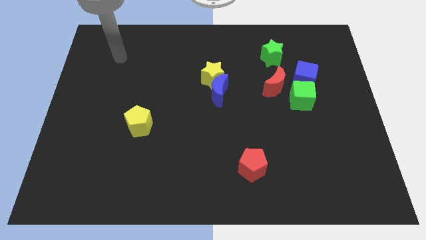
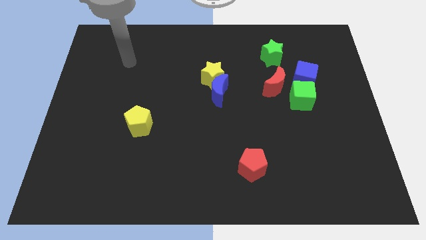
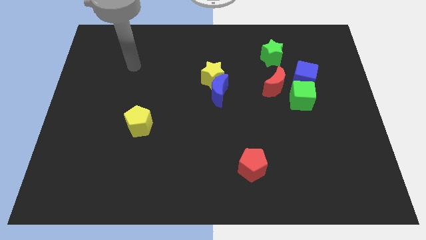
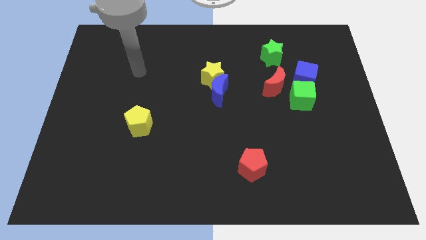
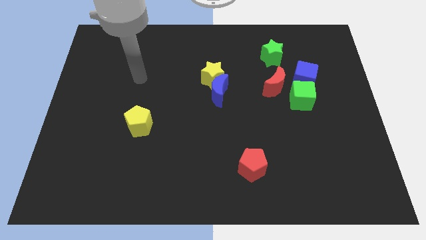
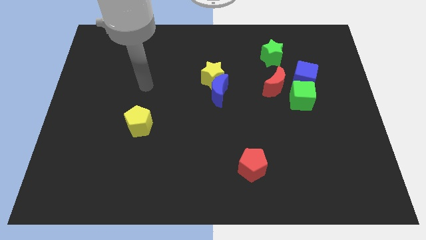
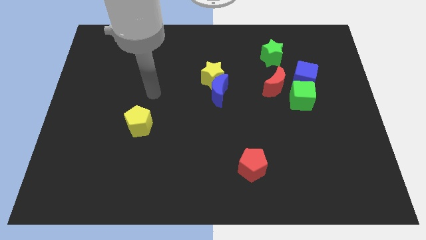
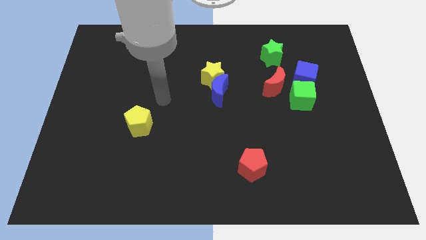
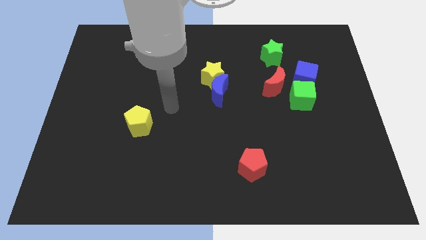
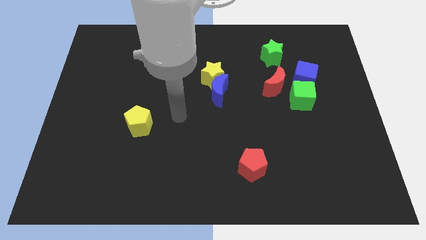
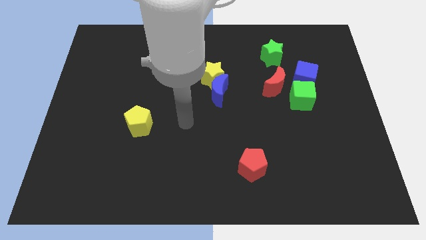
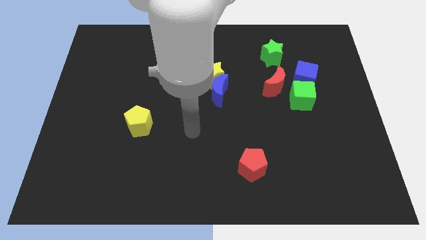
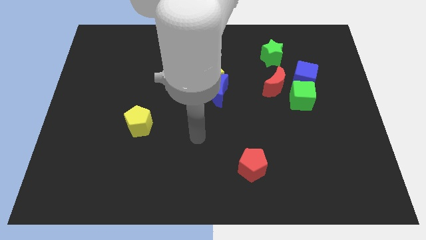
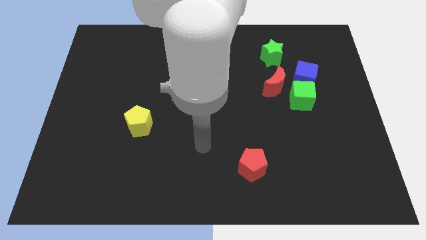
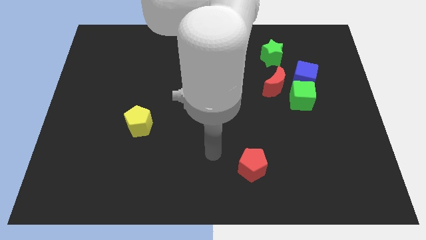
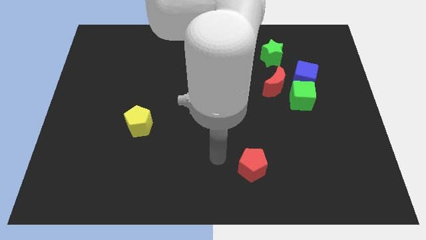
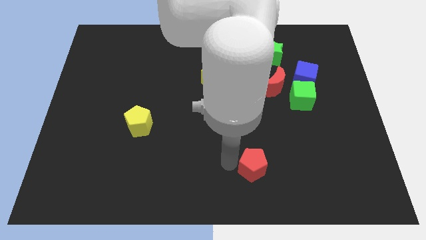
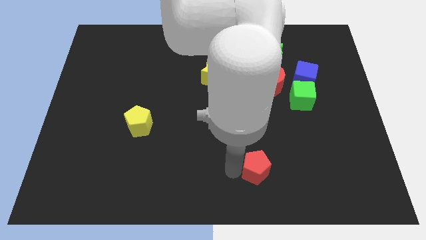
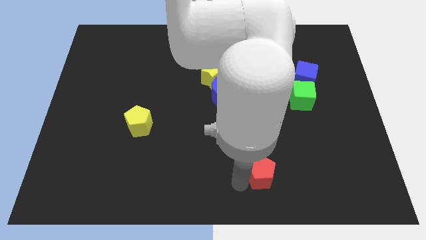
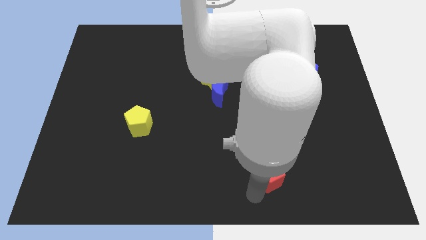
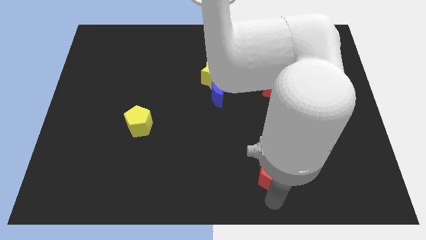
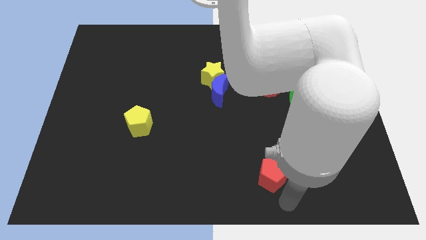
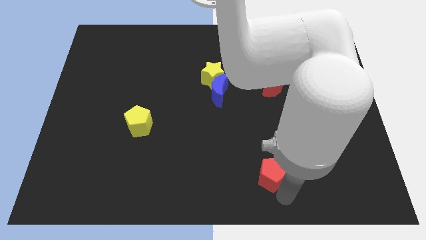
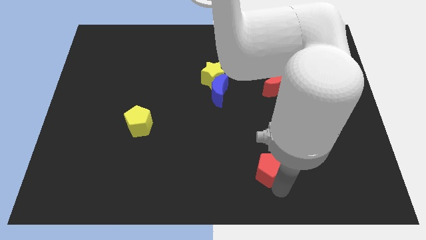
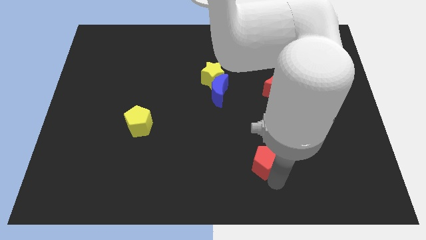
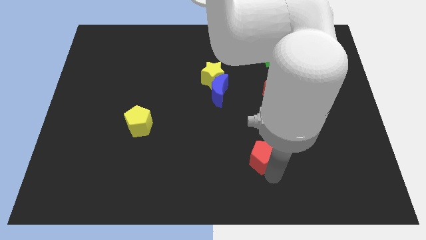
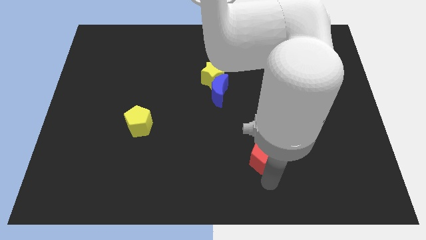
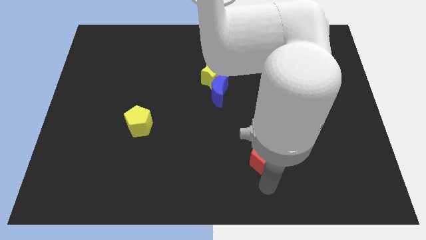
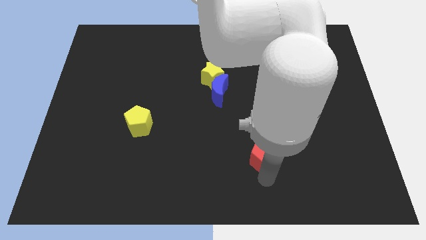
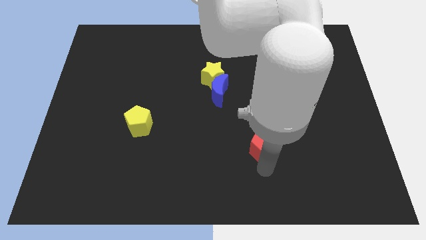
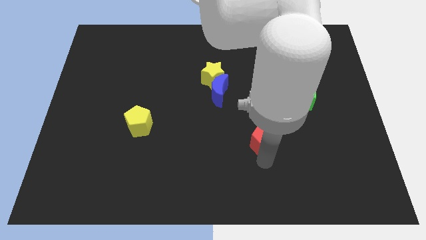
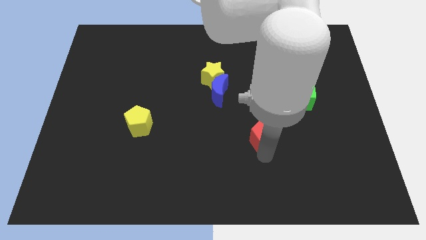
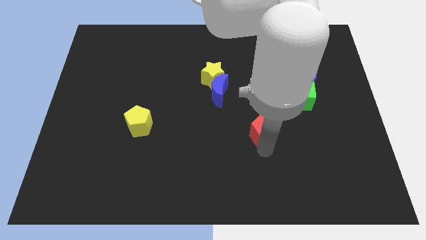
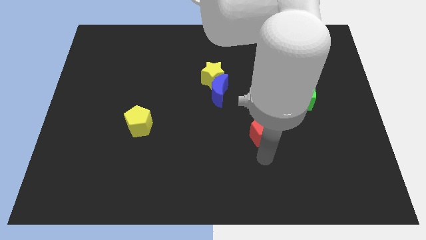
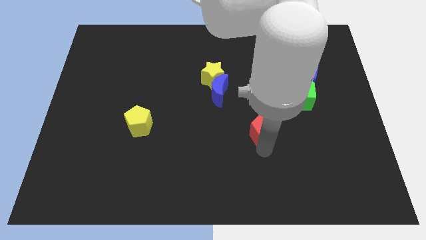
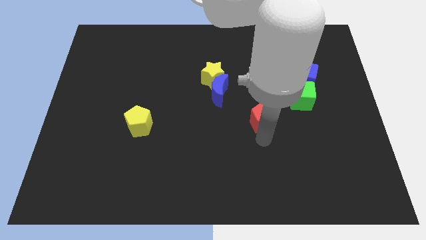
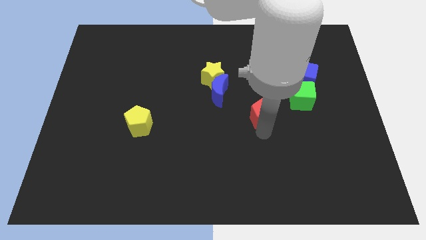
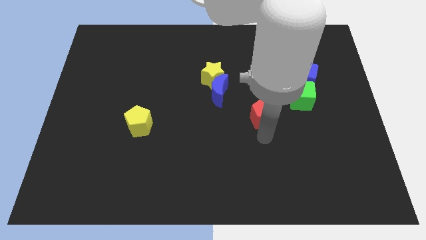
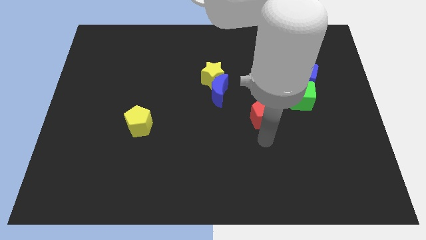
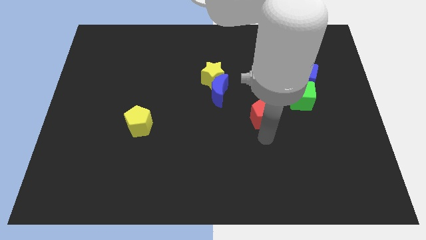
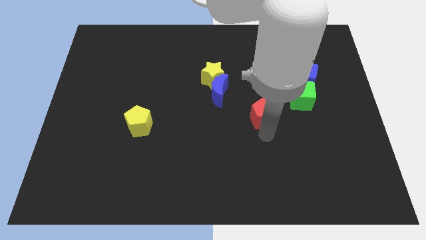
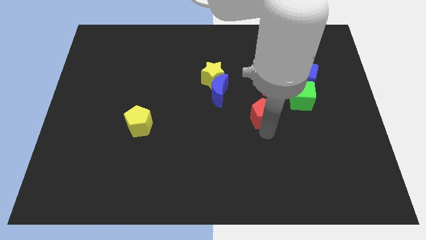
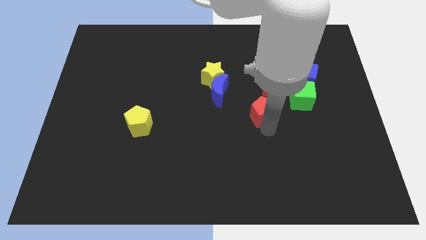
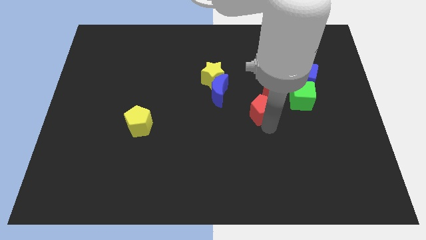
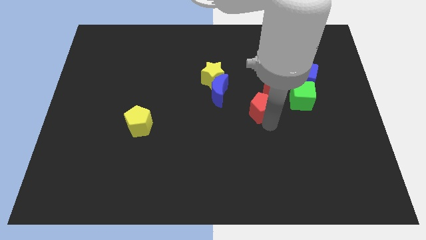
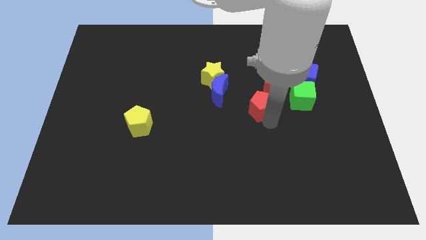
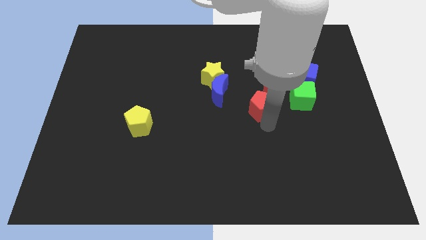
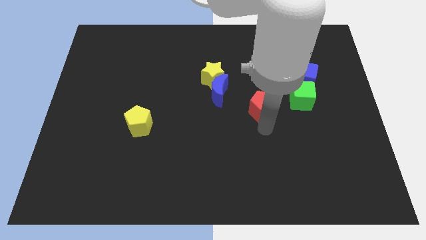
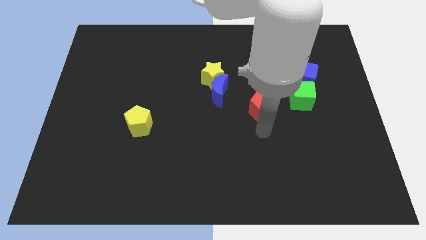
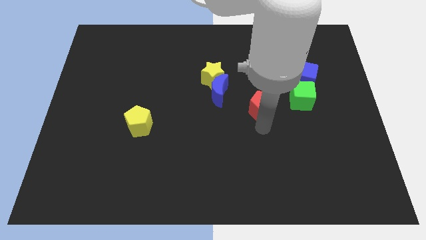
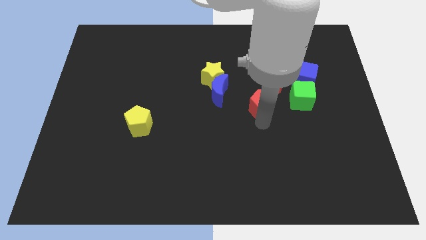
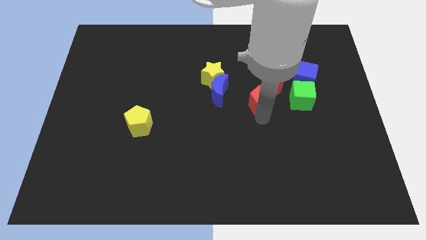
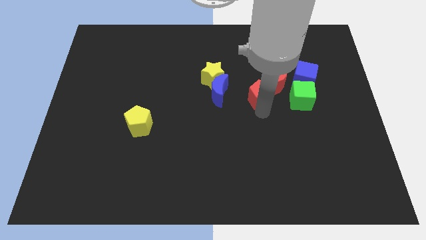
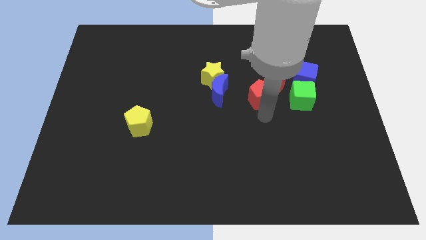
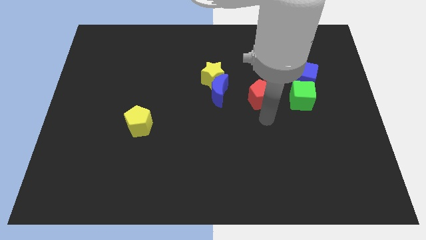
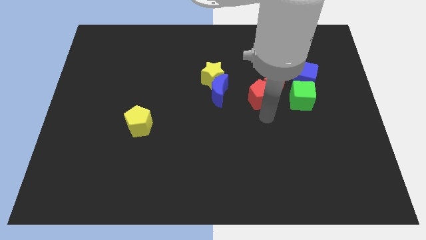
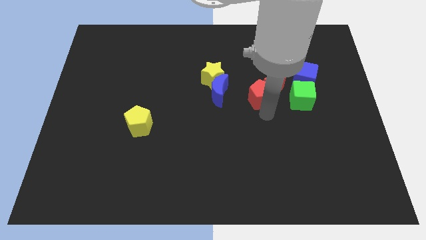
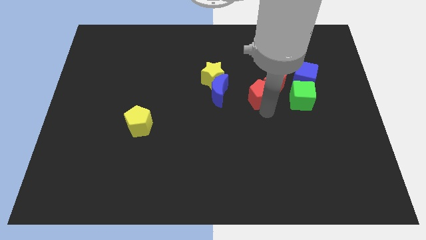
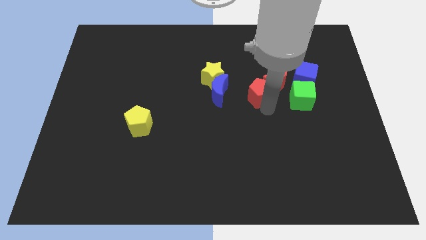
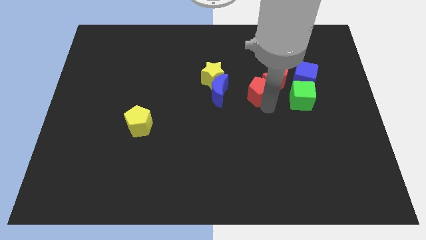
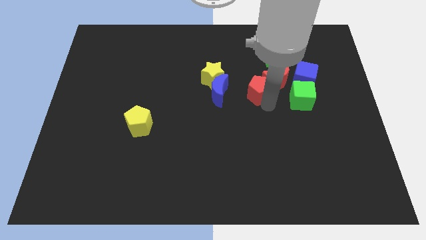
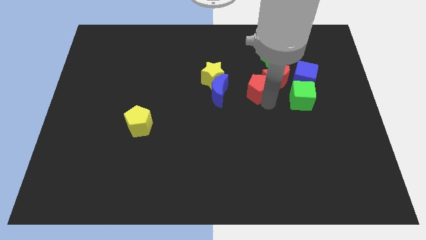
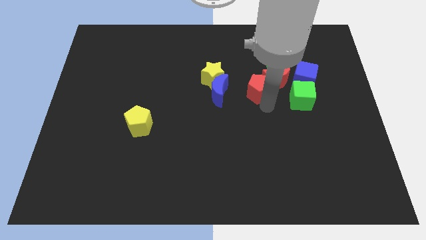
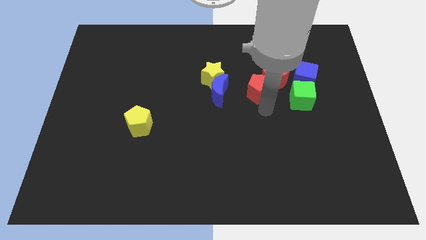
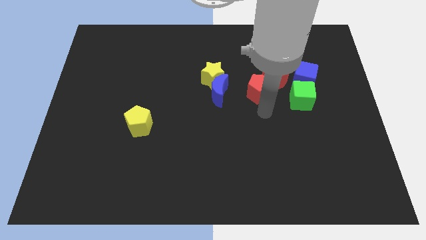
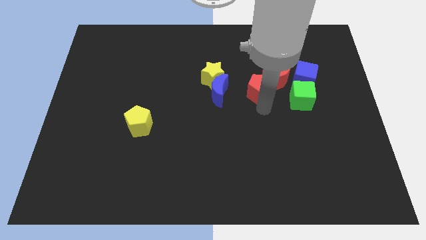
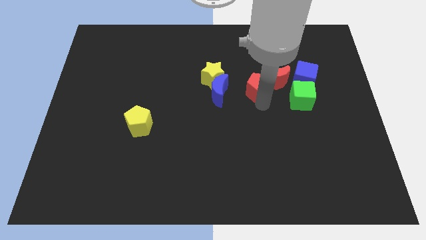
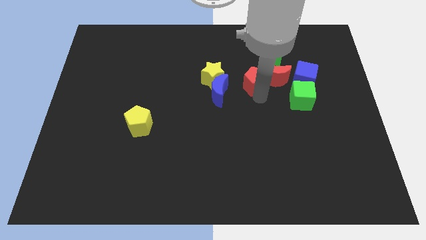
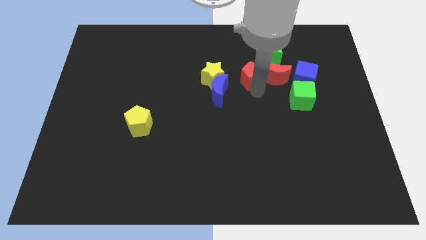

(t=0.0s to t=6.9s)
push the red pentagon to the top left of the red moon

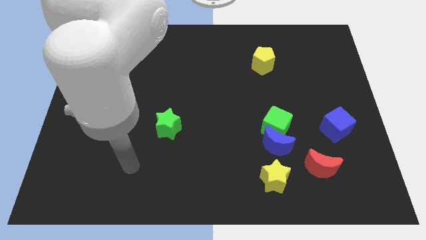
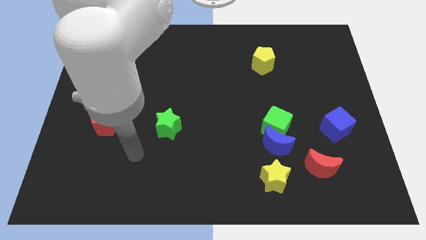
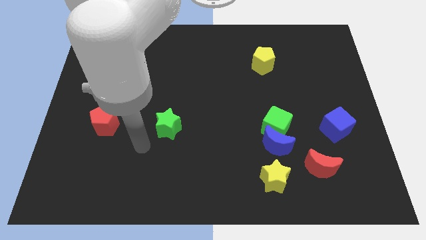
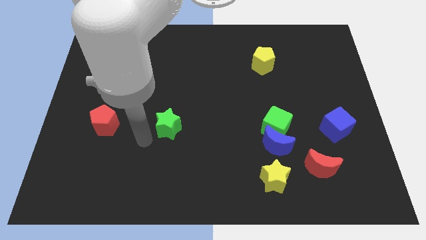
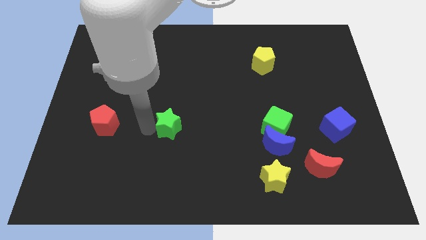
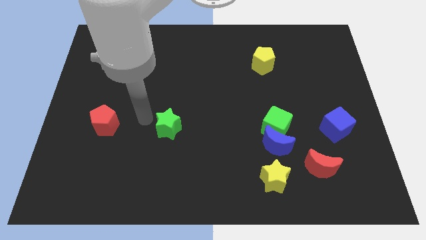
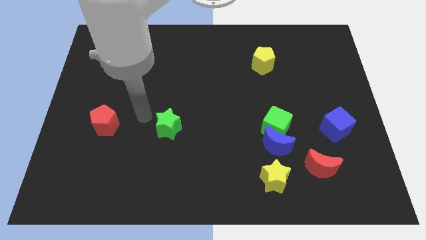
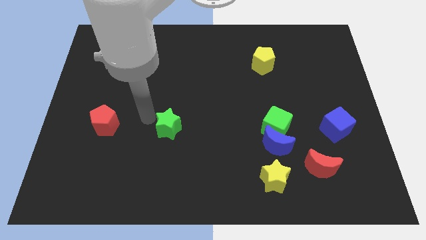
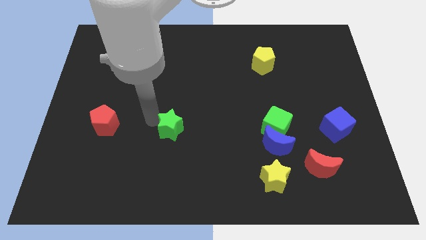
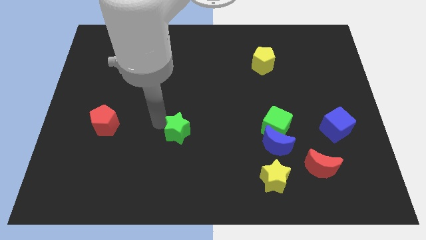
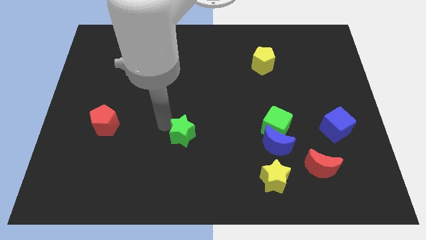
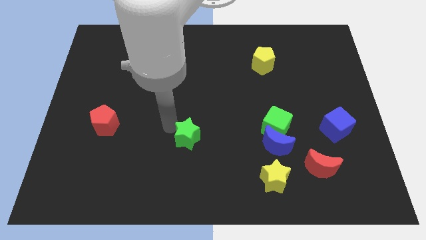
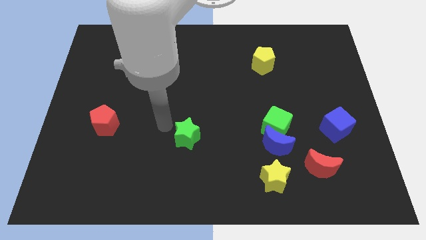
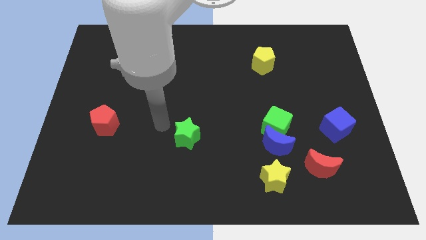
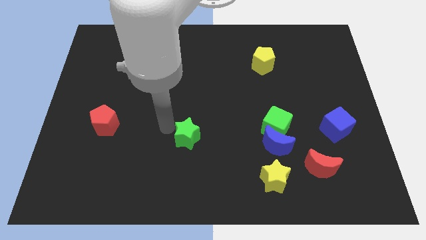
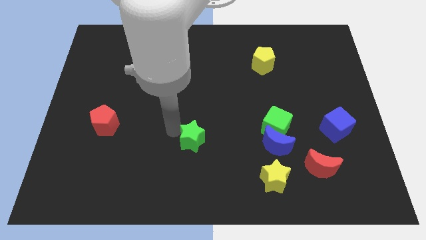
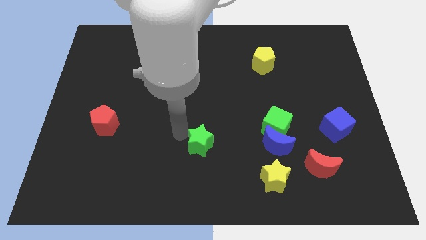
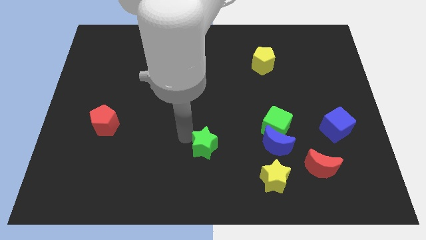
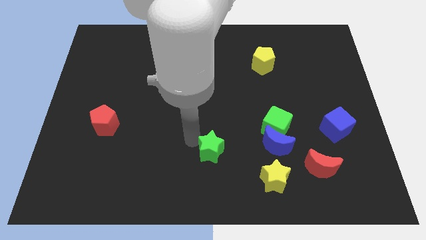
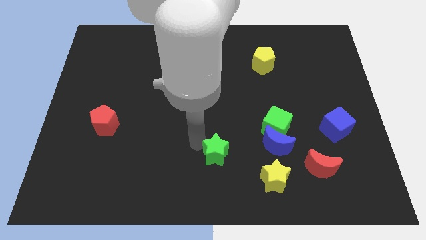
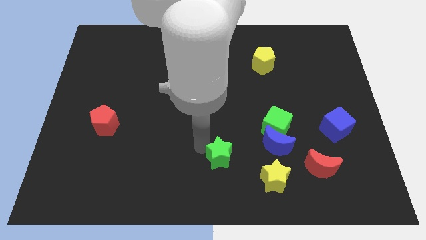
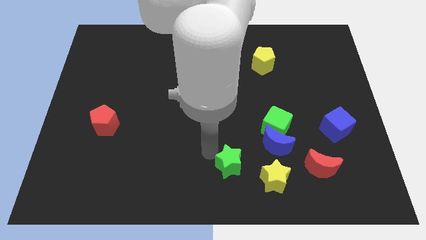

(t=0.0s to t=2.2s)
move the green star diagonally down and to the left of the blue moon
